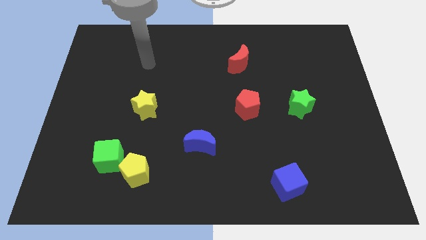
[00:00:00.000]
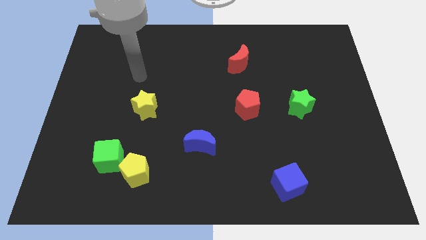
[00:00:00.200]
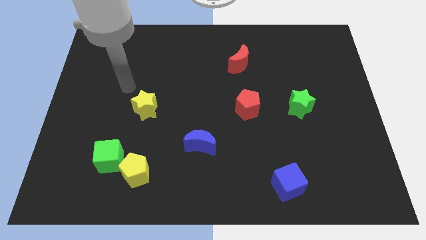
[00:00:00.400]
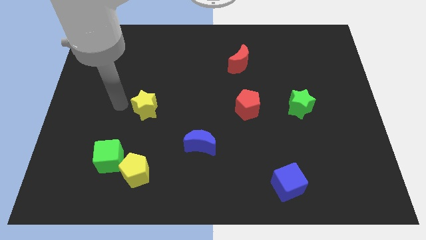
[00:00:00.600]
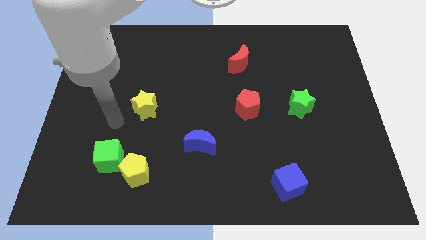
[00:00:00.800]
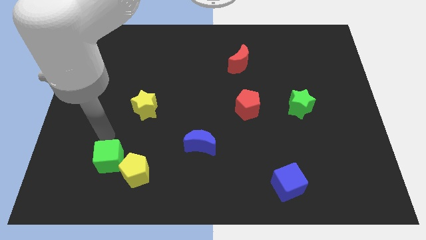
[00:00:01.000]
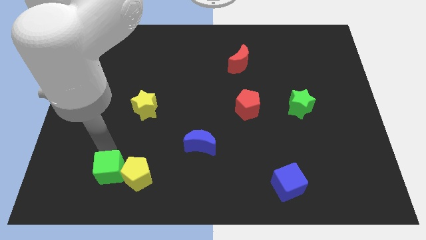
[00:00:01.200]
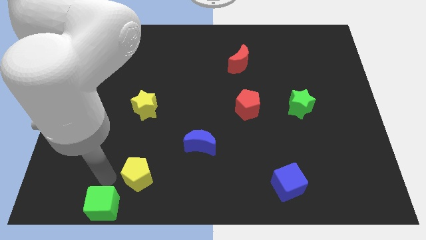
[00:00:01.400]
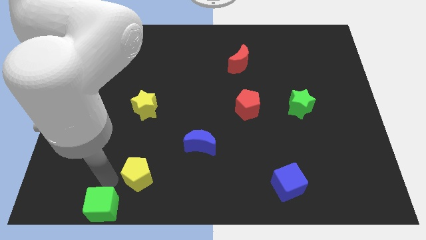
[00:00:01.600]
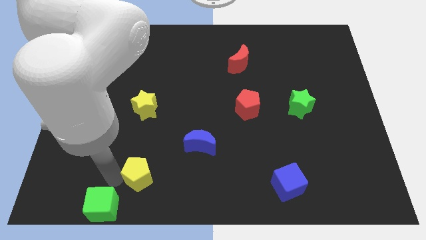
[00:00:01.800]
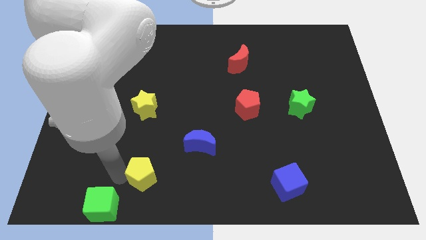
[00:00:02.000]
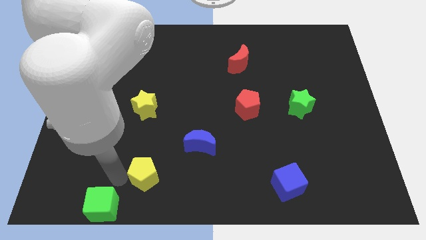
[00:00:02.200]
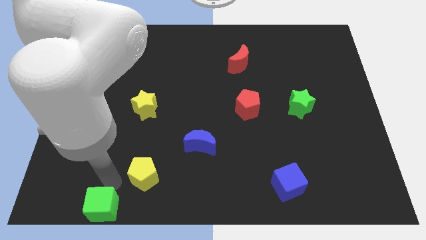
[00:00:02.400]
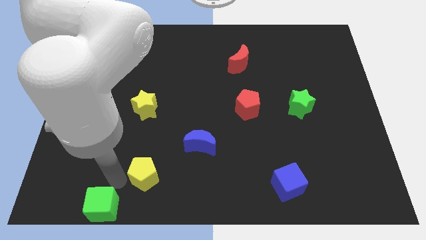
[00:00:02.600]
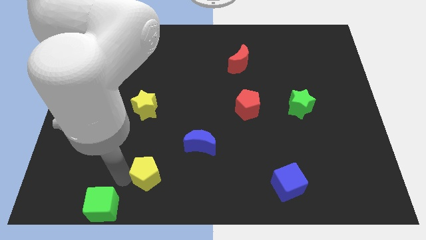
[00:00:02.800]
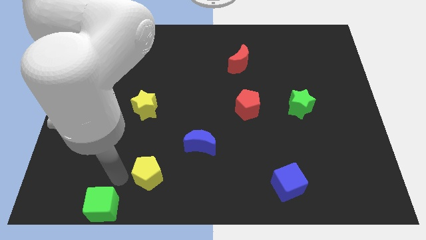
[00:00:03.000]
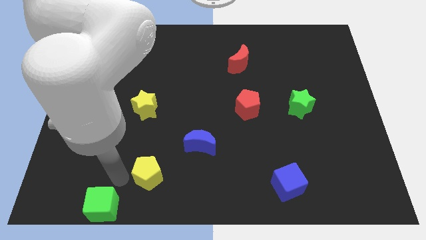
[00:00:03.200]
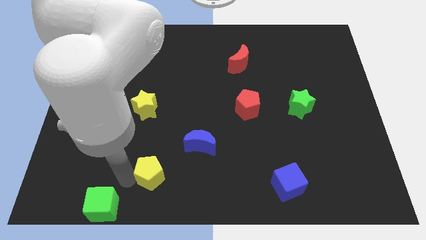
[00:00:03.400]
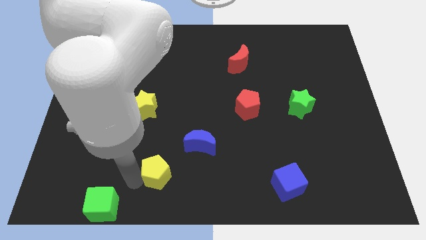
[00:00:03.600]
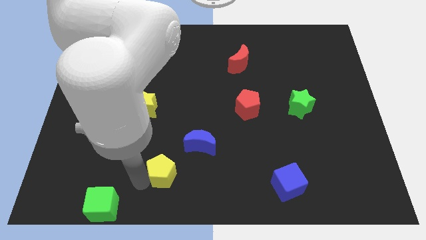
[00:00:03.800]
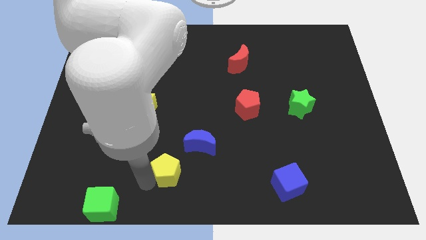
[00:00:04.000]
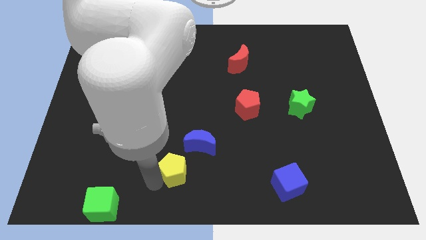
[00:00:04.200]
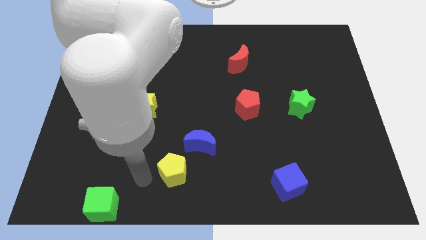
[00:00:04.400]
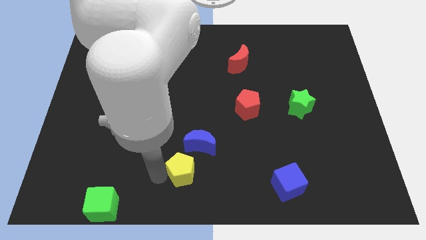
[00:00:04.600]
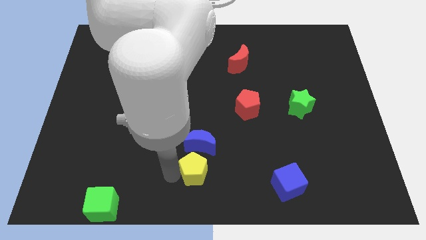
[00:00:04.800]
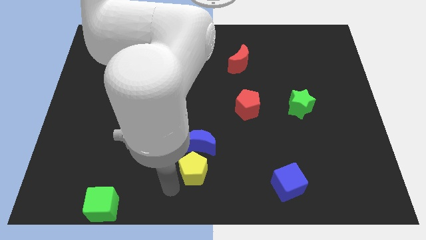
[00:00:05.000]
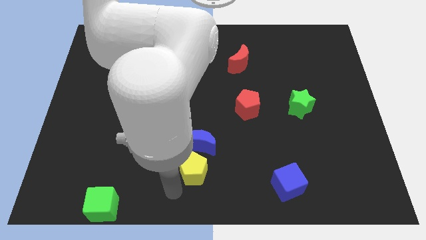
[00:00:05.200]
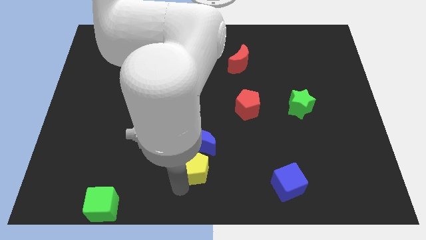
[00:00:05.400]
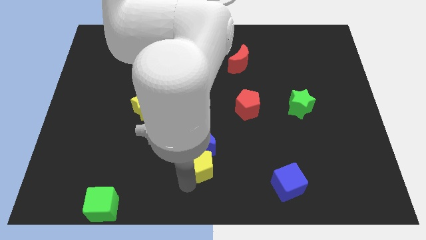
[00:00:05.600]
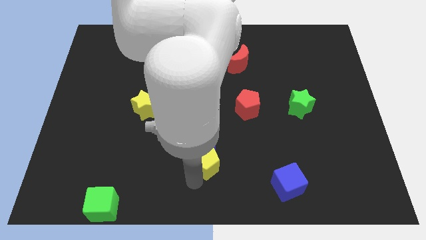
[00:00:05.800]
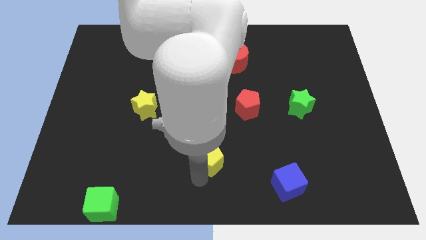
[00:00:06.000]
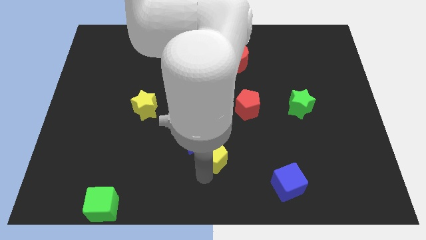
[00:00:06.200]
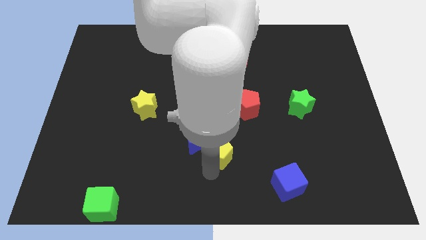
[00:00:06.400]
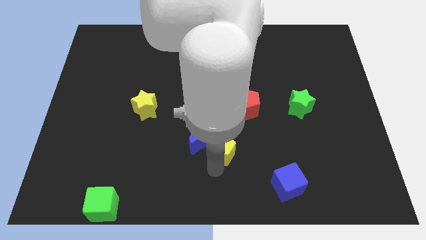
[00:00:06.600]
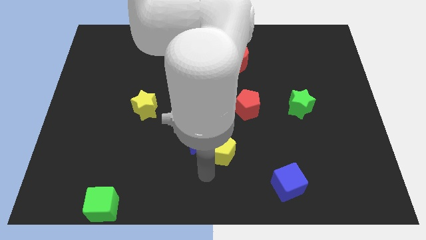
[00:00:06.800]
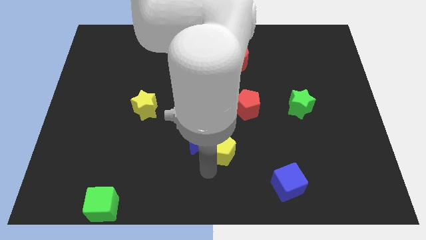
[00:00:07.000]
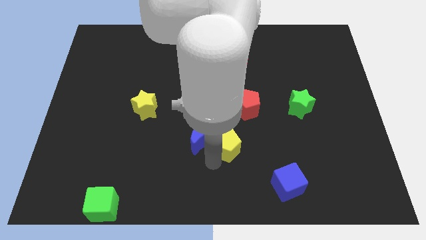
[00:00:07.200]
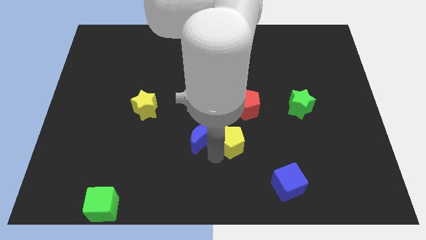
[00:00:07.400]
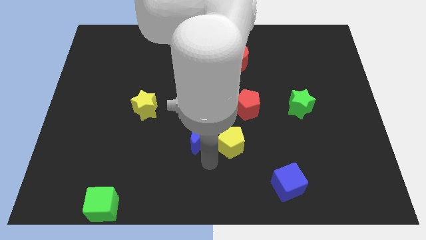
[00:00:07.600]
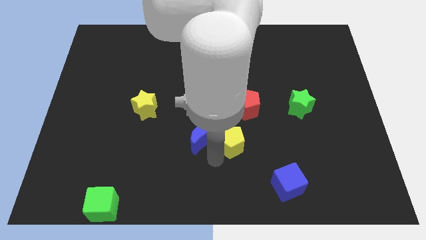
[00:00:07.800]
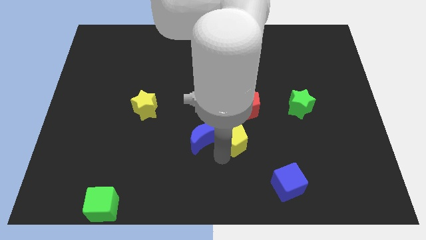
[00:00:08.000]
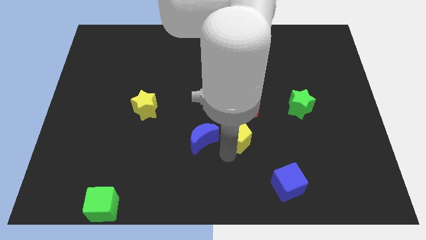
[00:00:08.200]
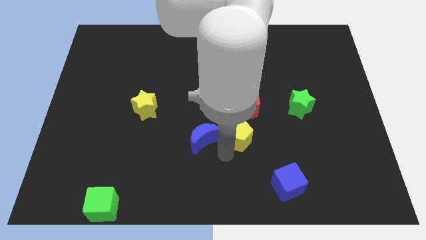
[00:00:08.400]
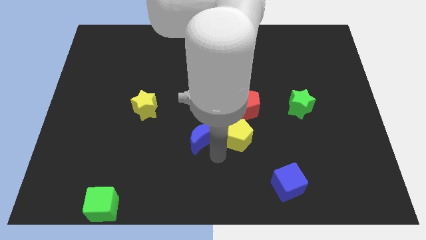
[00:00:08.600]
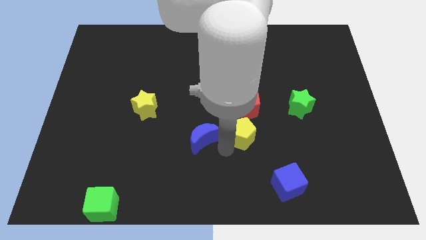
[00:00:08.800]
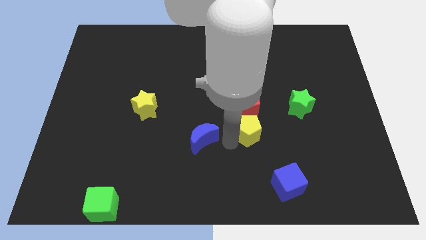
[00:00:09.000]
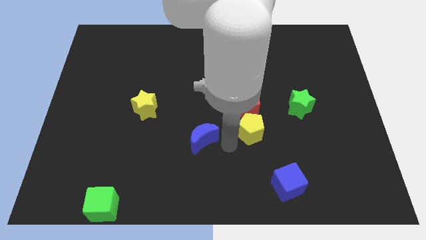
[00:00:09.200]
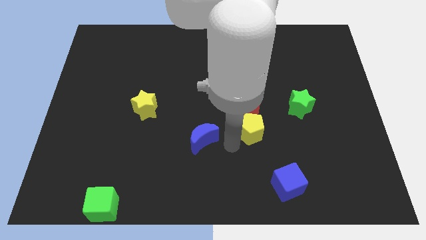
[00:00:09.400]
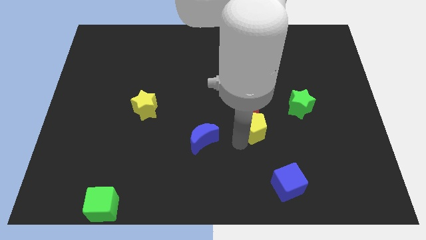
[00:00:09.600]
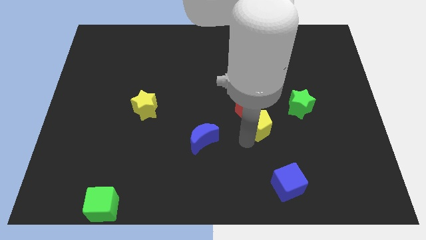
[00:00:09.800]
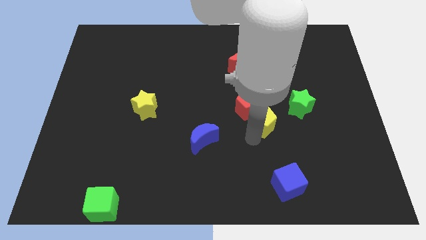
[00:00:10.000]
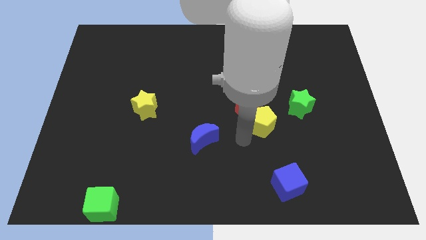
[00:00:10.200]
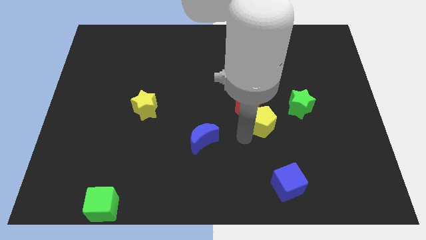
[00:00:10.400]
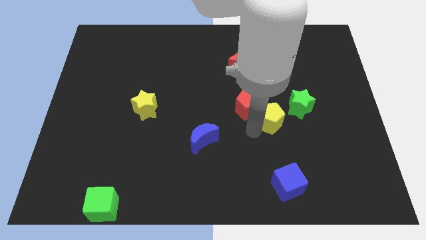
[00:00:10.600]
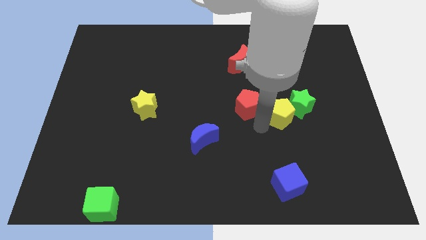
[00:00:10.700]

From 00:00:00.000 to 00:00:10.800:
move the yellow pentagon close to the green star
